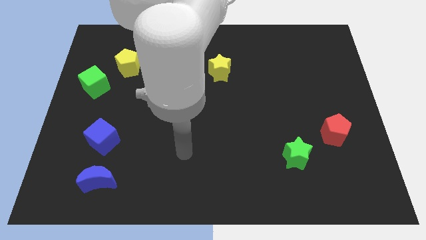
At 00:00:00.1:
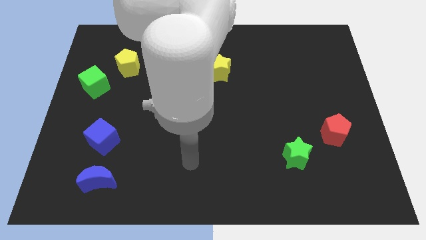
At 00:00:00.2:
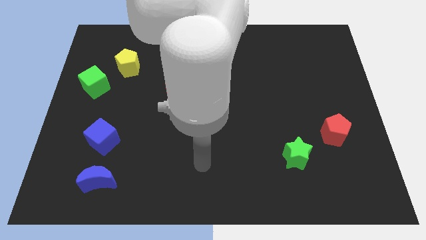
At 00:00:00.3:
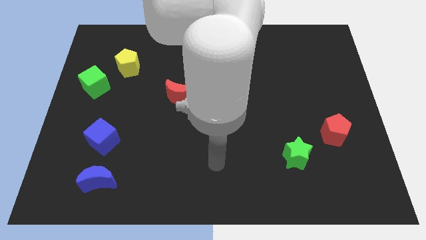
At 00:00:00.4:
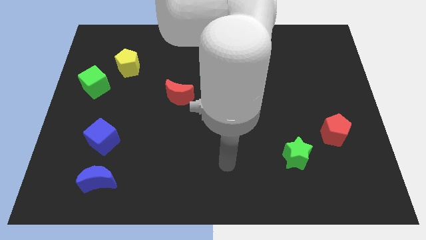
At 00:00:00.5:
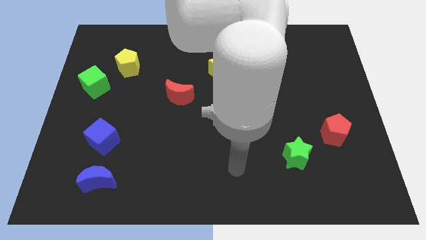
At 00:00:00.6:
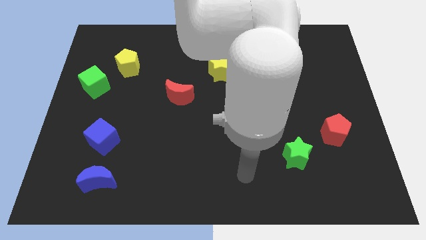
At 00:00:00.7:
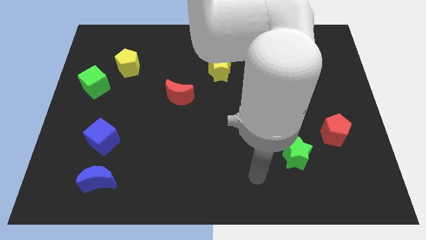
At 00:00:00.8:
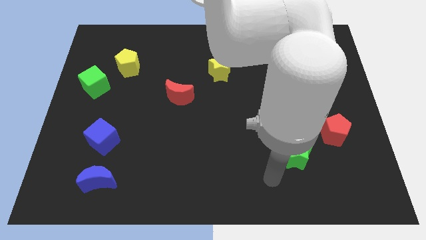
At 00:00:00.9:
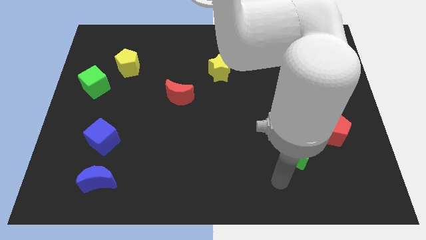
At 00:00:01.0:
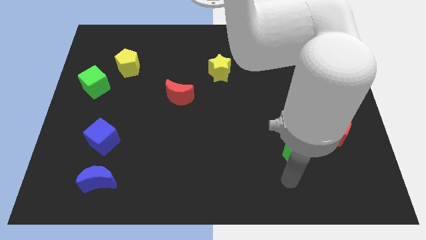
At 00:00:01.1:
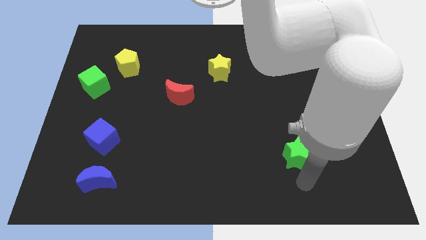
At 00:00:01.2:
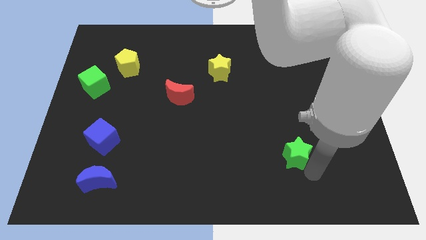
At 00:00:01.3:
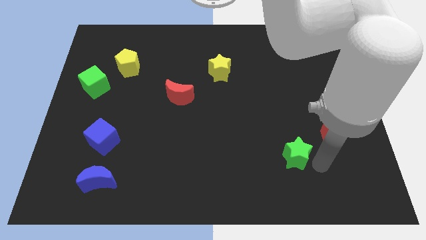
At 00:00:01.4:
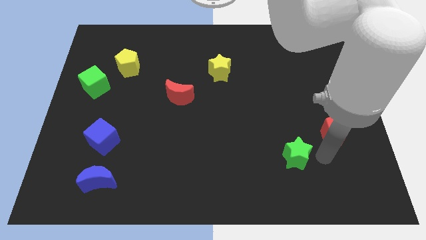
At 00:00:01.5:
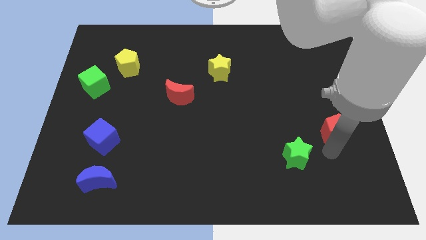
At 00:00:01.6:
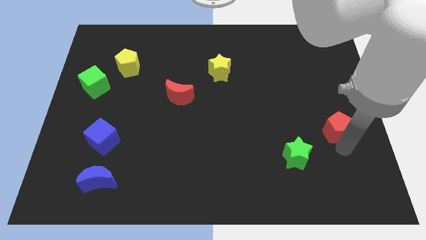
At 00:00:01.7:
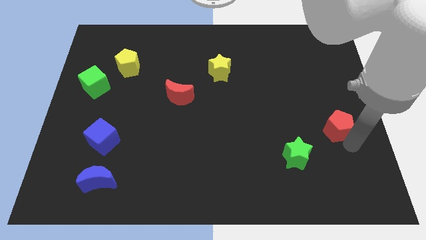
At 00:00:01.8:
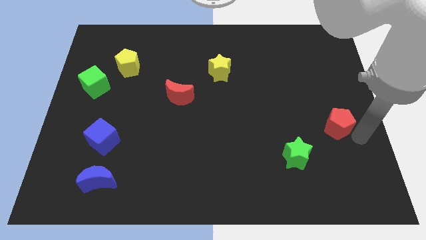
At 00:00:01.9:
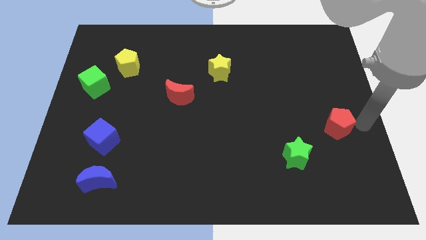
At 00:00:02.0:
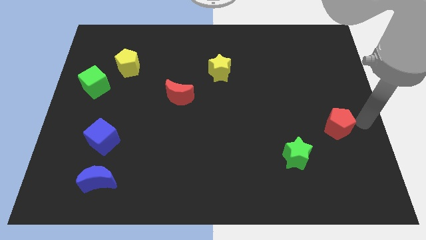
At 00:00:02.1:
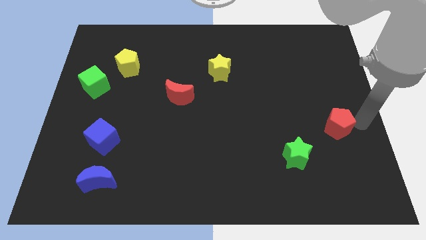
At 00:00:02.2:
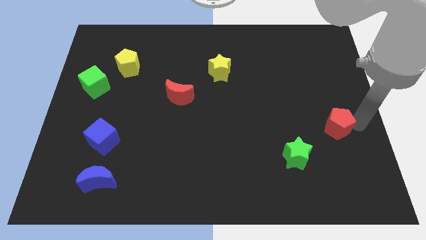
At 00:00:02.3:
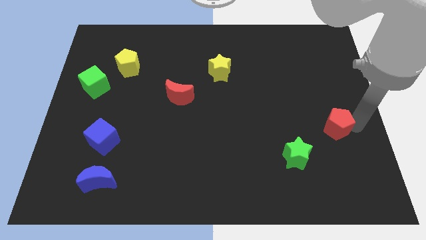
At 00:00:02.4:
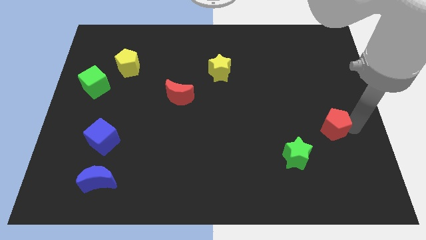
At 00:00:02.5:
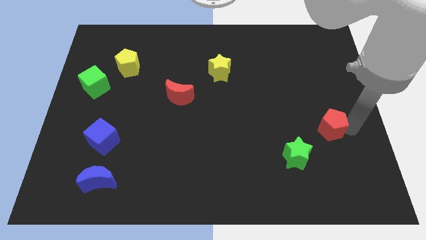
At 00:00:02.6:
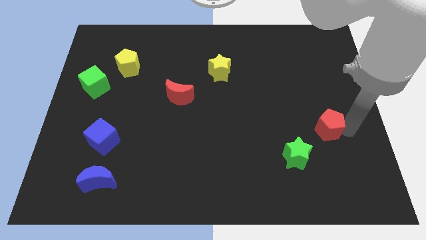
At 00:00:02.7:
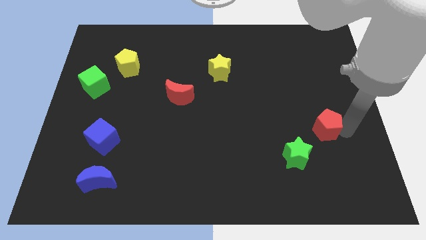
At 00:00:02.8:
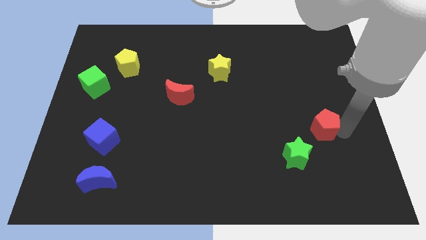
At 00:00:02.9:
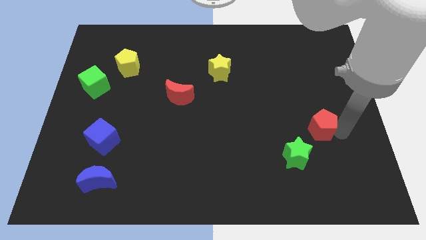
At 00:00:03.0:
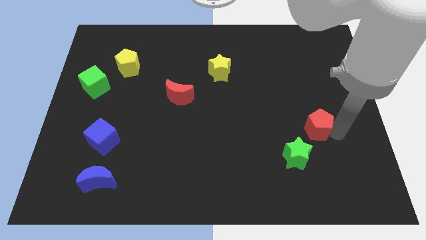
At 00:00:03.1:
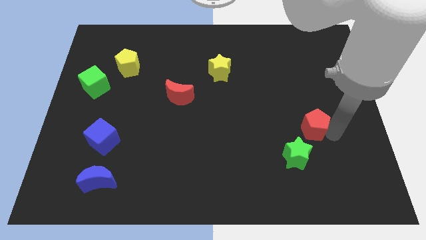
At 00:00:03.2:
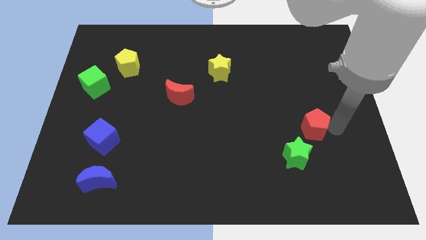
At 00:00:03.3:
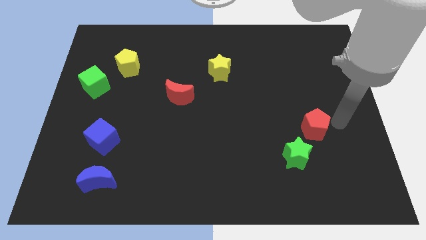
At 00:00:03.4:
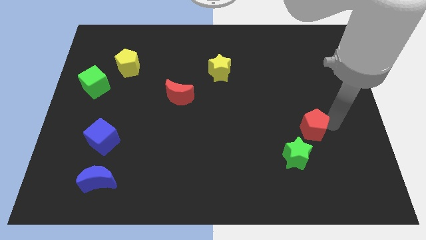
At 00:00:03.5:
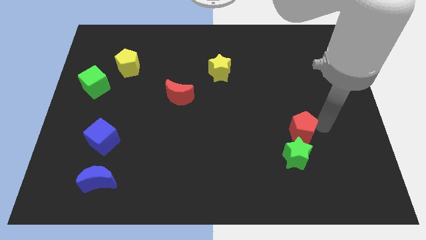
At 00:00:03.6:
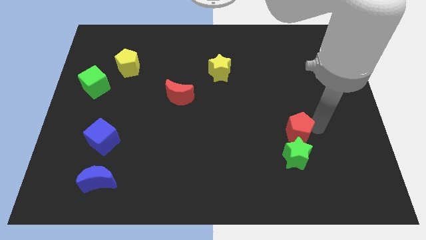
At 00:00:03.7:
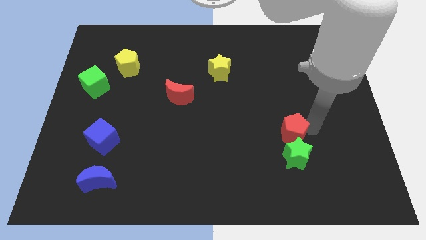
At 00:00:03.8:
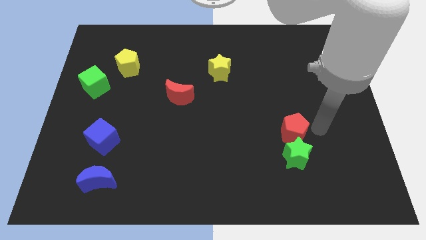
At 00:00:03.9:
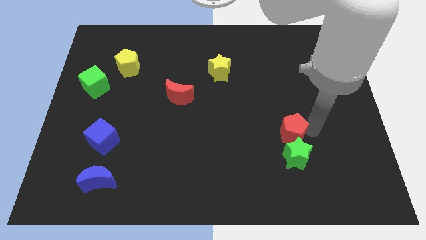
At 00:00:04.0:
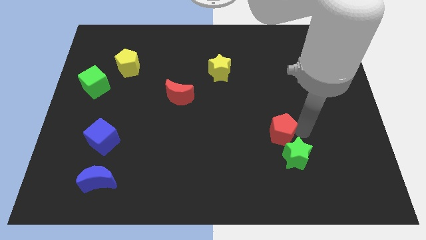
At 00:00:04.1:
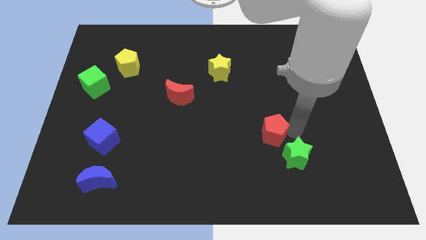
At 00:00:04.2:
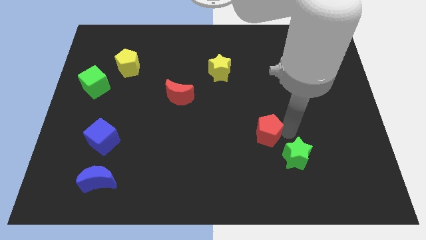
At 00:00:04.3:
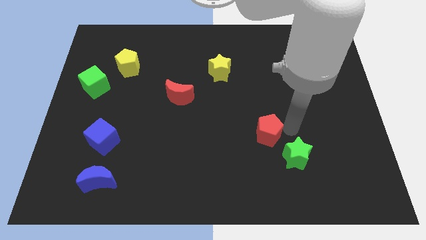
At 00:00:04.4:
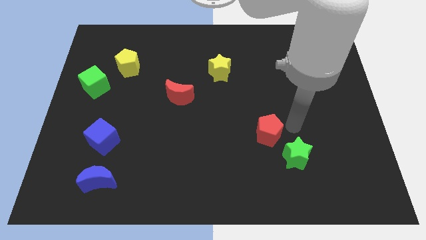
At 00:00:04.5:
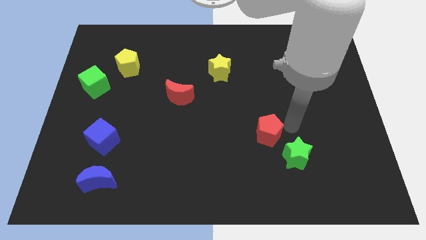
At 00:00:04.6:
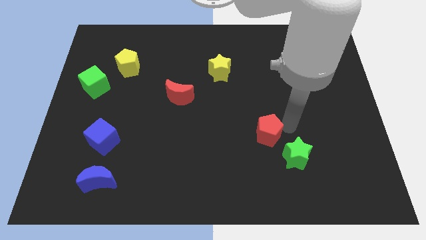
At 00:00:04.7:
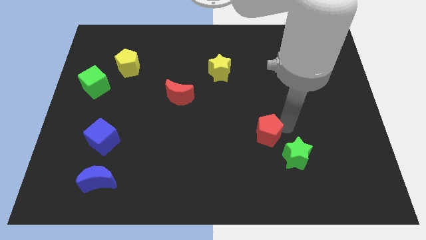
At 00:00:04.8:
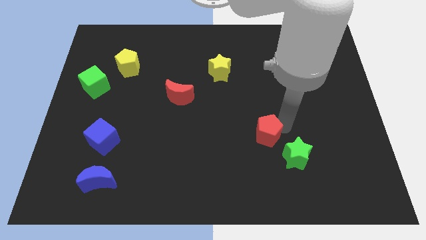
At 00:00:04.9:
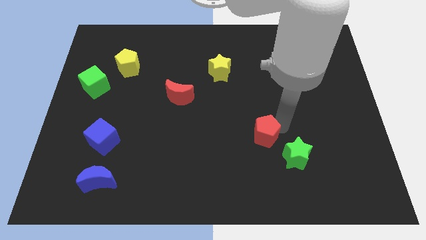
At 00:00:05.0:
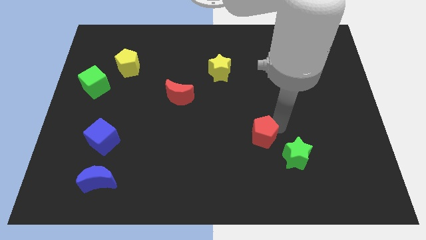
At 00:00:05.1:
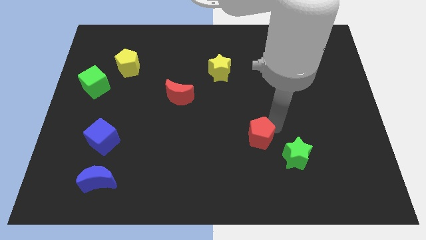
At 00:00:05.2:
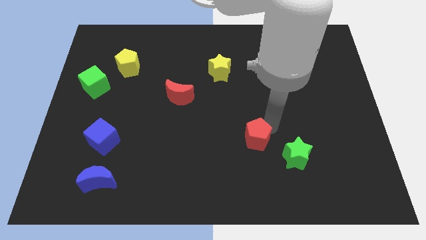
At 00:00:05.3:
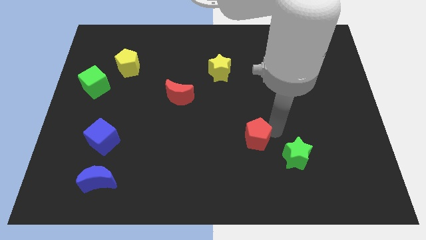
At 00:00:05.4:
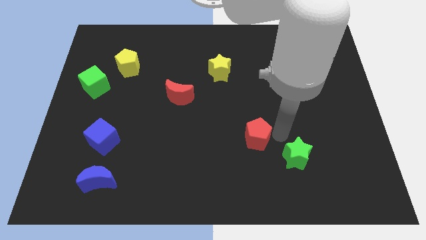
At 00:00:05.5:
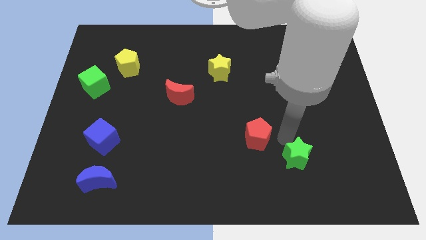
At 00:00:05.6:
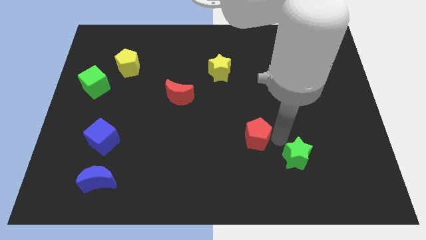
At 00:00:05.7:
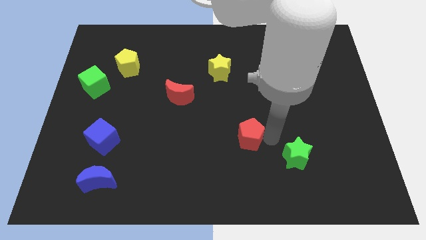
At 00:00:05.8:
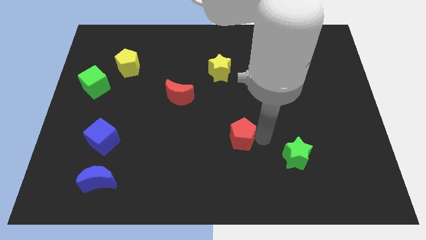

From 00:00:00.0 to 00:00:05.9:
move the red pentagon to the left

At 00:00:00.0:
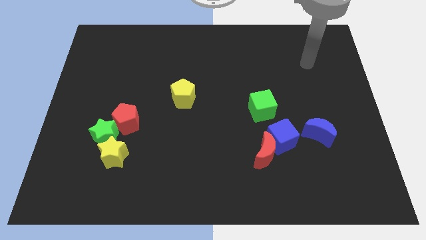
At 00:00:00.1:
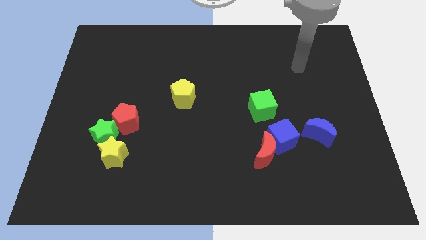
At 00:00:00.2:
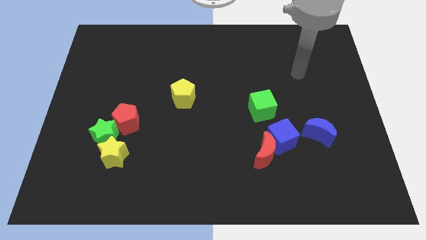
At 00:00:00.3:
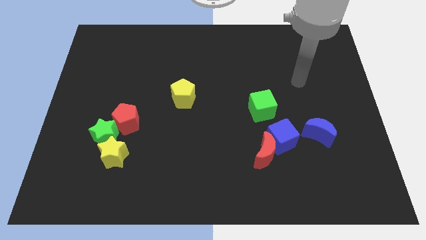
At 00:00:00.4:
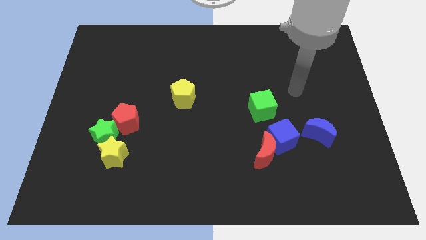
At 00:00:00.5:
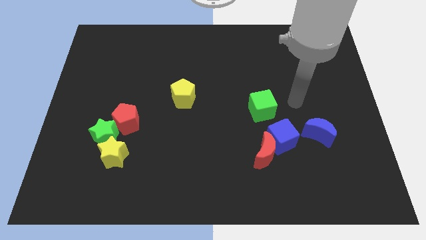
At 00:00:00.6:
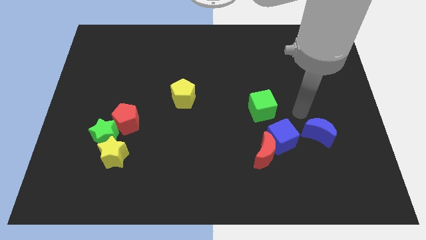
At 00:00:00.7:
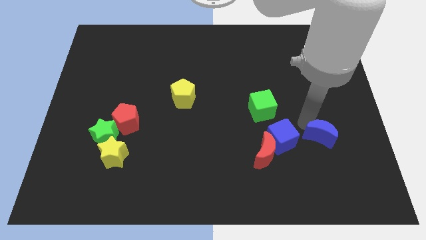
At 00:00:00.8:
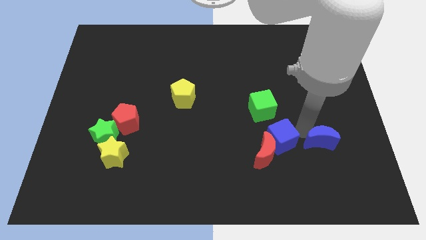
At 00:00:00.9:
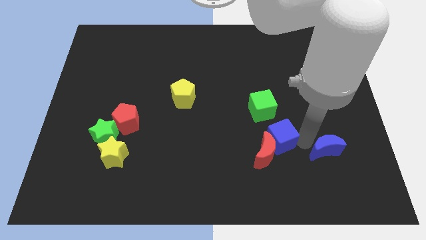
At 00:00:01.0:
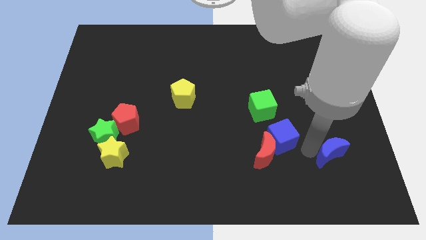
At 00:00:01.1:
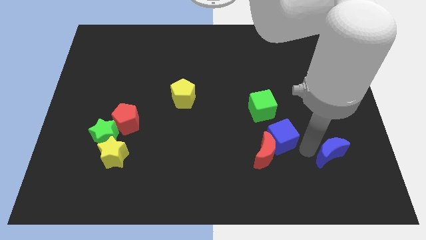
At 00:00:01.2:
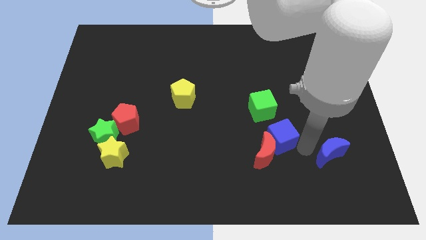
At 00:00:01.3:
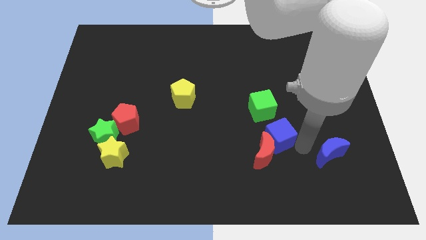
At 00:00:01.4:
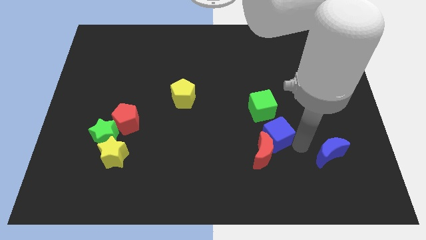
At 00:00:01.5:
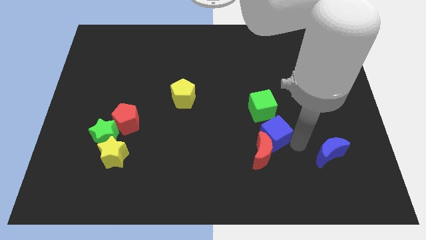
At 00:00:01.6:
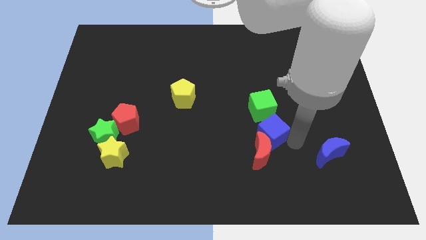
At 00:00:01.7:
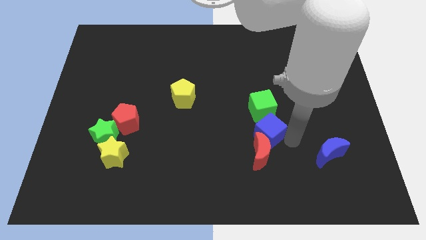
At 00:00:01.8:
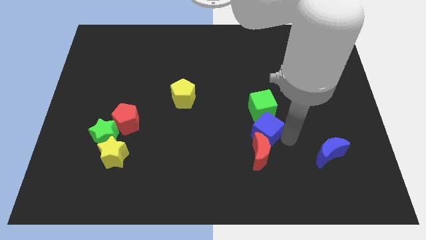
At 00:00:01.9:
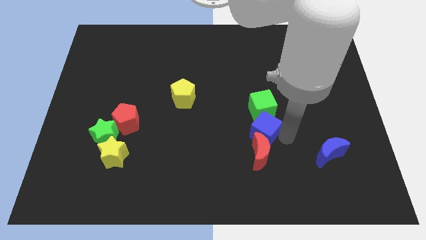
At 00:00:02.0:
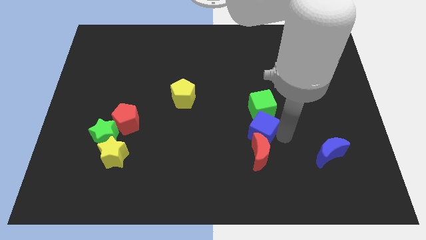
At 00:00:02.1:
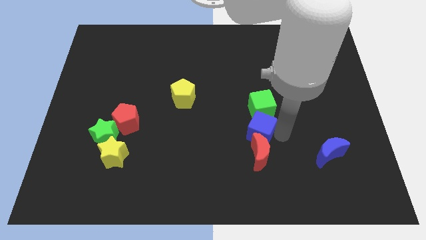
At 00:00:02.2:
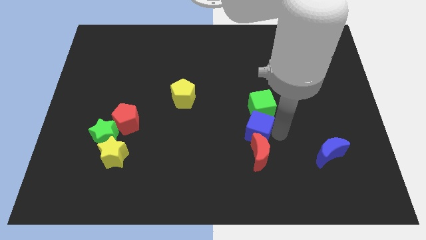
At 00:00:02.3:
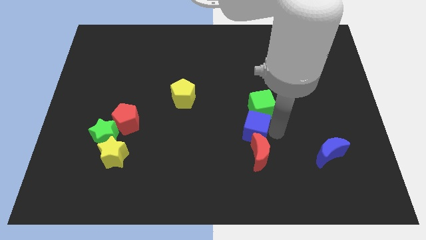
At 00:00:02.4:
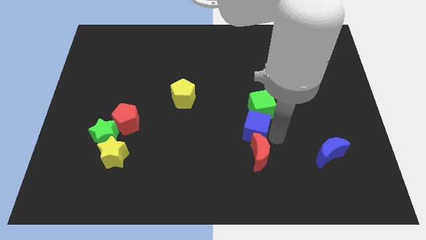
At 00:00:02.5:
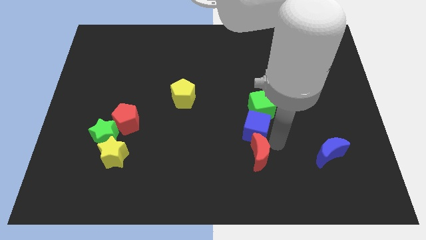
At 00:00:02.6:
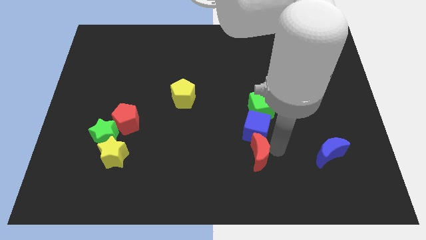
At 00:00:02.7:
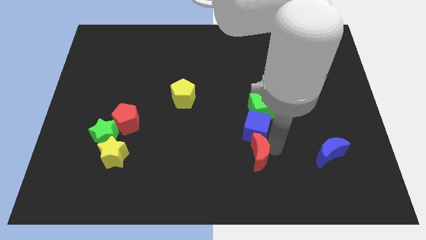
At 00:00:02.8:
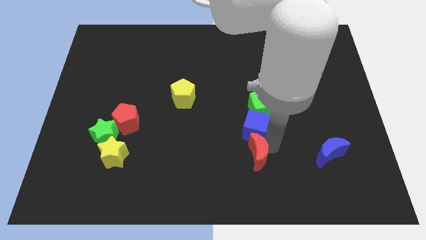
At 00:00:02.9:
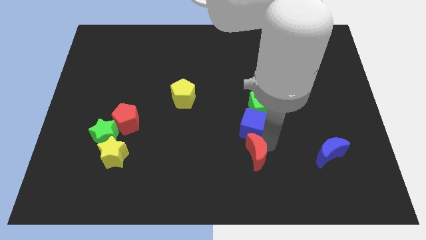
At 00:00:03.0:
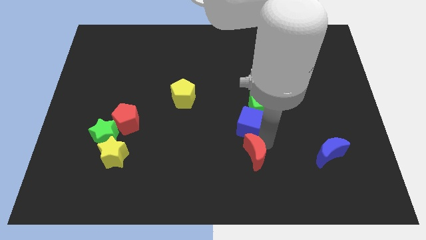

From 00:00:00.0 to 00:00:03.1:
slightly push the blue cube upwards and to the left
